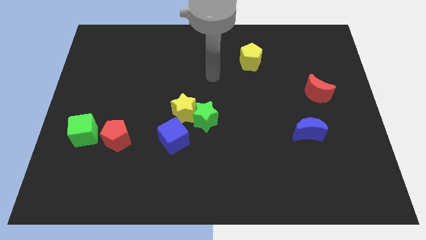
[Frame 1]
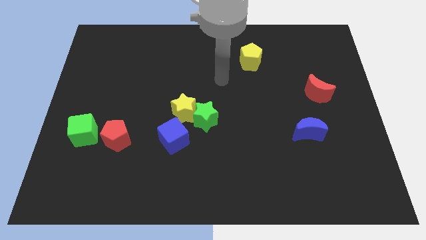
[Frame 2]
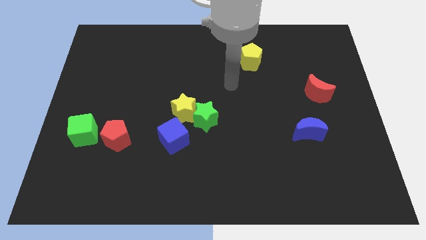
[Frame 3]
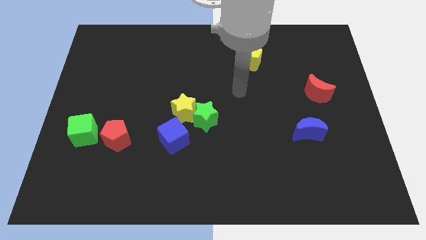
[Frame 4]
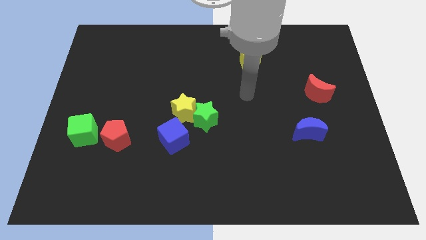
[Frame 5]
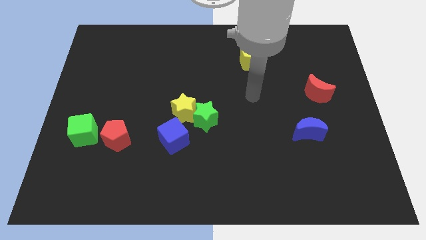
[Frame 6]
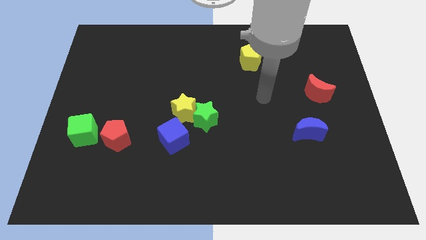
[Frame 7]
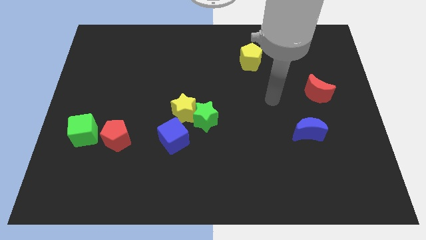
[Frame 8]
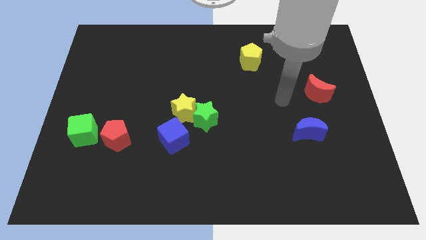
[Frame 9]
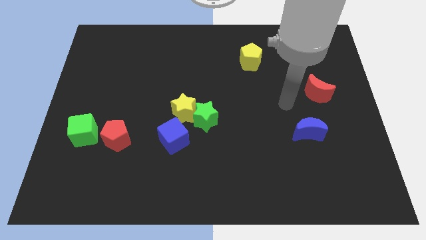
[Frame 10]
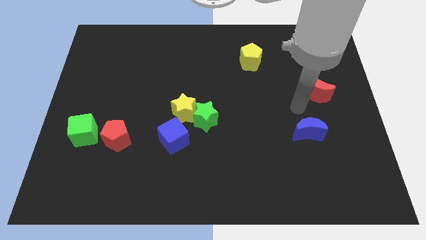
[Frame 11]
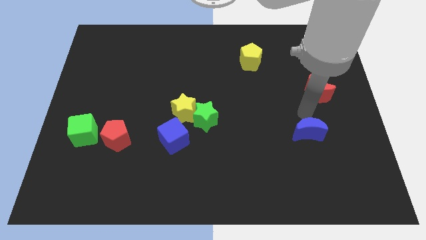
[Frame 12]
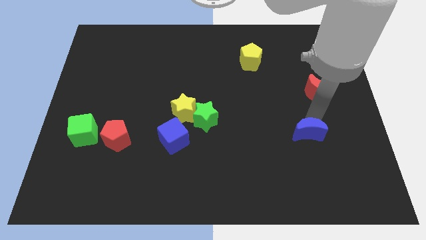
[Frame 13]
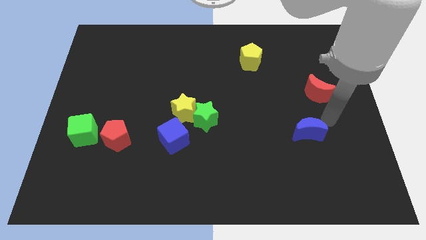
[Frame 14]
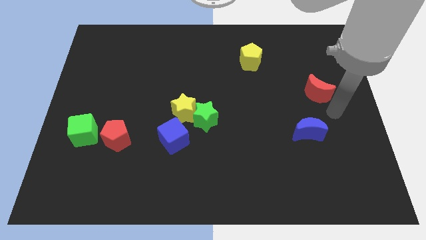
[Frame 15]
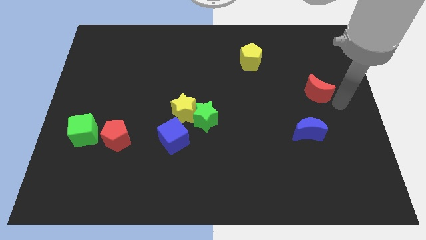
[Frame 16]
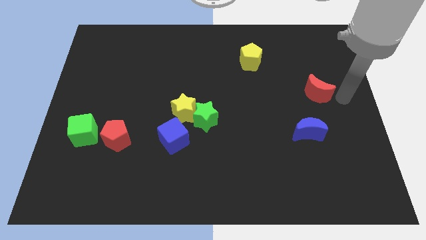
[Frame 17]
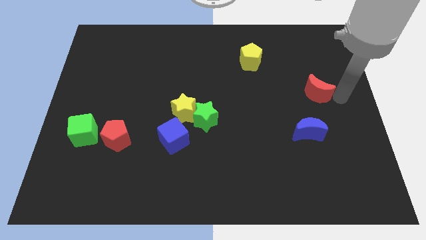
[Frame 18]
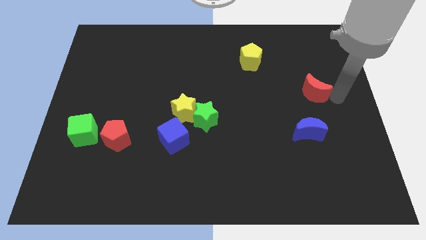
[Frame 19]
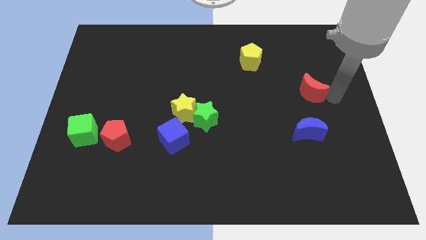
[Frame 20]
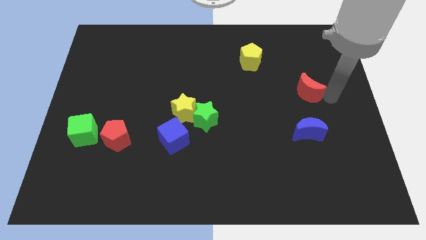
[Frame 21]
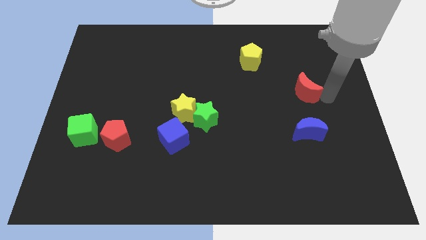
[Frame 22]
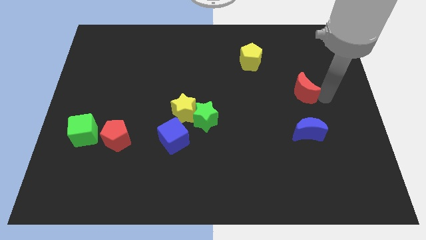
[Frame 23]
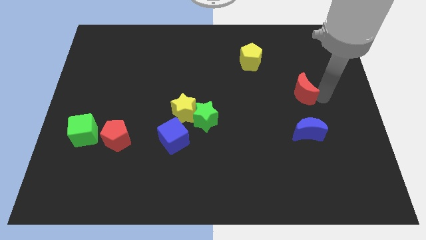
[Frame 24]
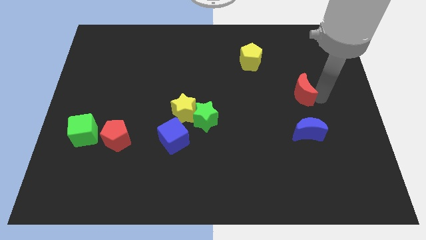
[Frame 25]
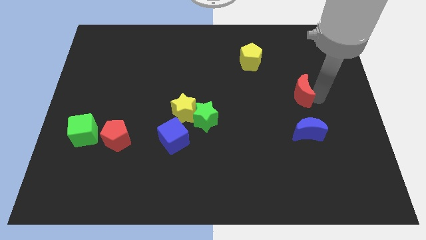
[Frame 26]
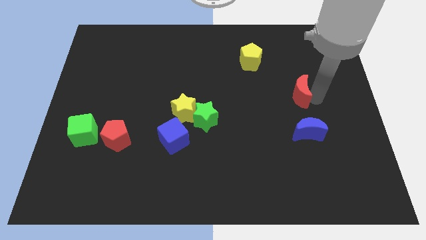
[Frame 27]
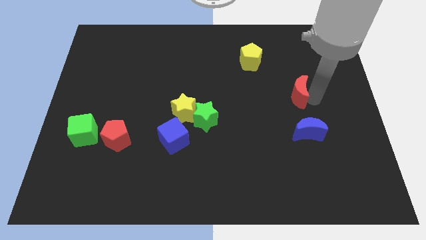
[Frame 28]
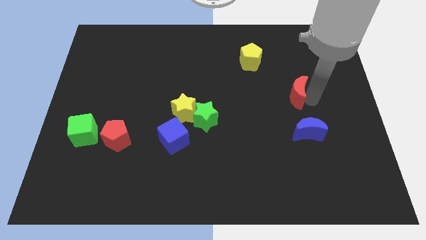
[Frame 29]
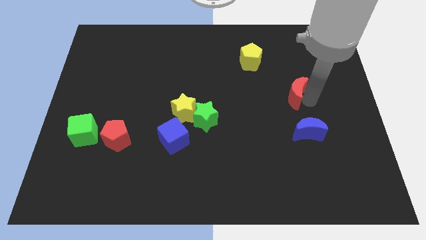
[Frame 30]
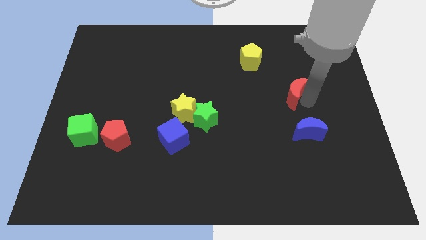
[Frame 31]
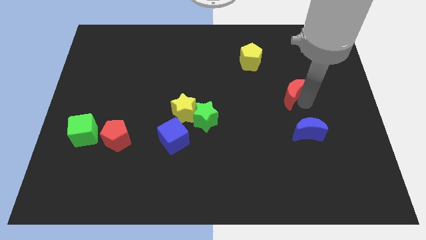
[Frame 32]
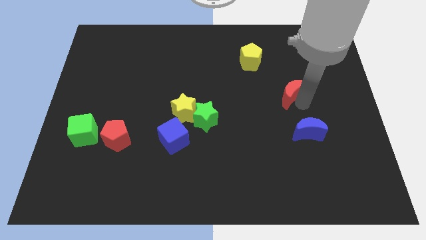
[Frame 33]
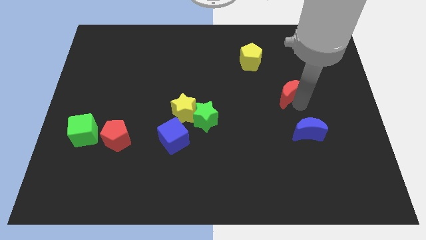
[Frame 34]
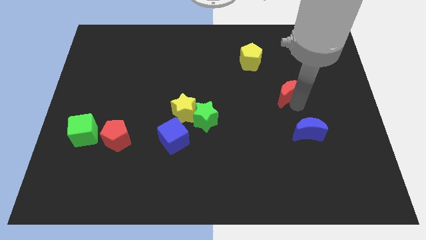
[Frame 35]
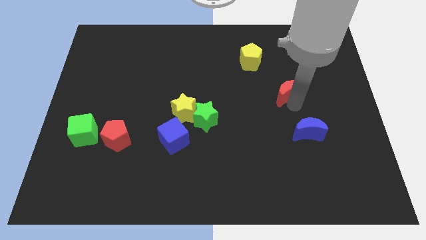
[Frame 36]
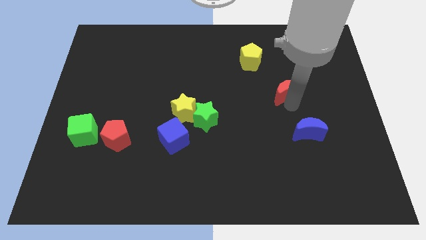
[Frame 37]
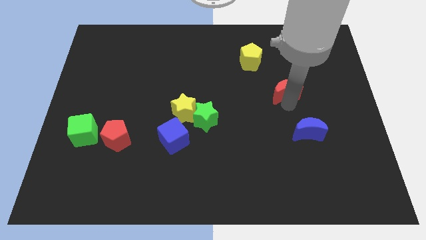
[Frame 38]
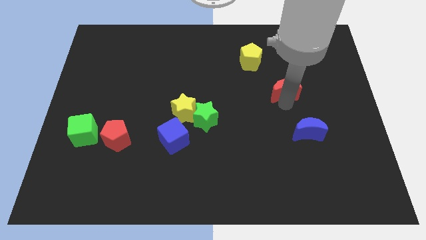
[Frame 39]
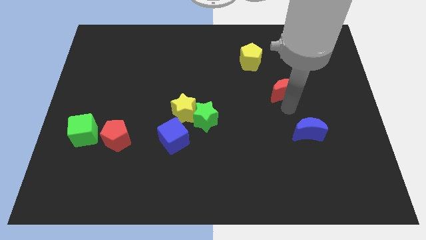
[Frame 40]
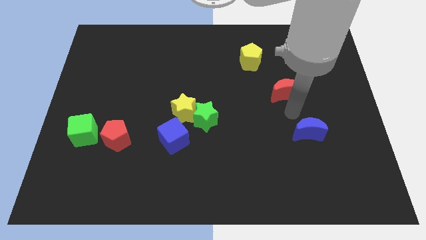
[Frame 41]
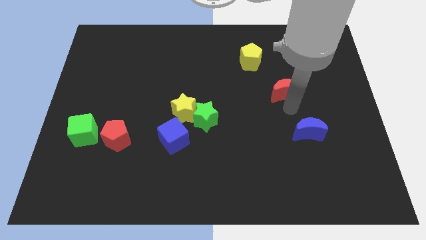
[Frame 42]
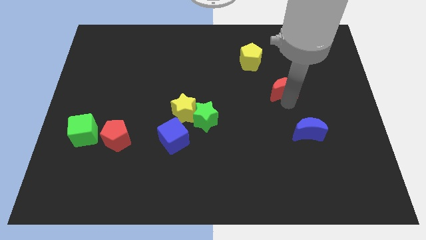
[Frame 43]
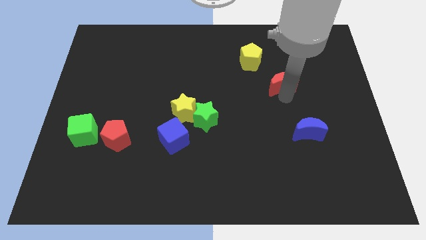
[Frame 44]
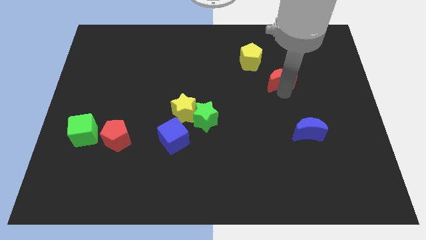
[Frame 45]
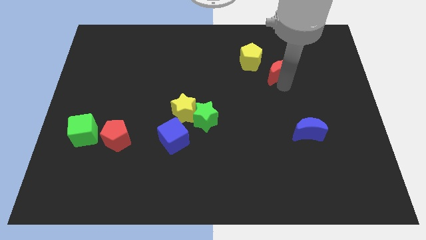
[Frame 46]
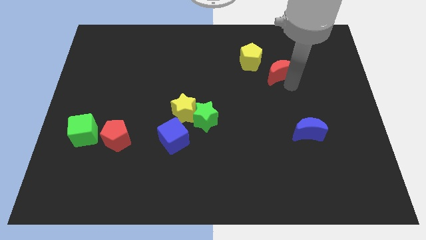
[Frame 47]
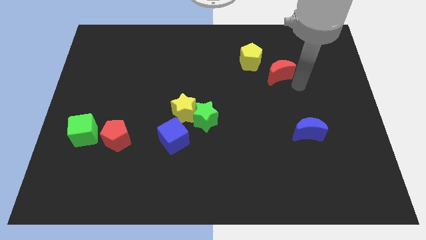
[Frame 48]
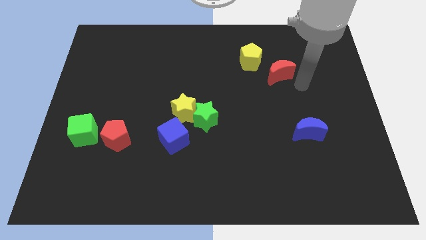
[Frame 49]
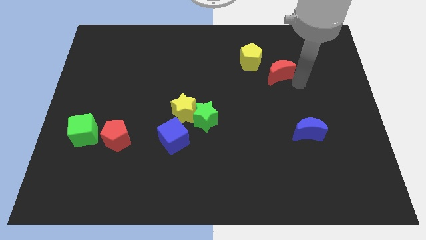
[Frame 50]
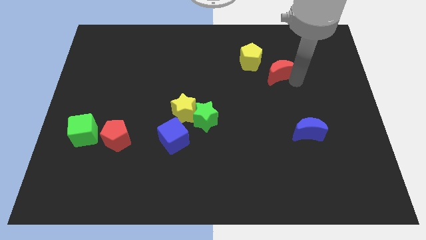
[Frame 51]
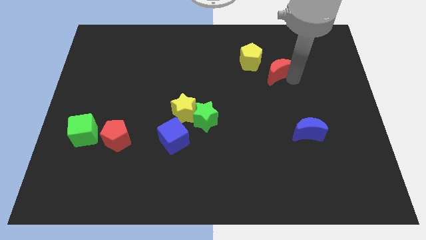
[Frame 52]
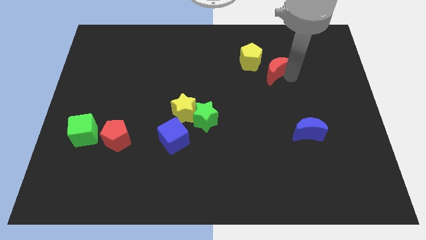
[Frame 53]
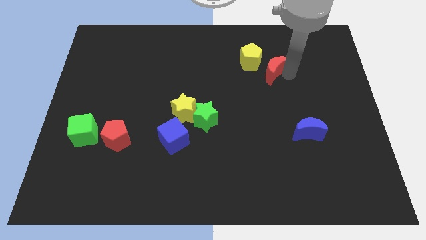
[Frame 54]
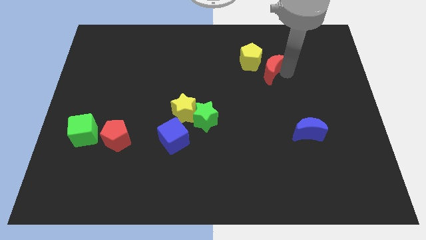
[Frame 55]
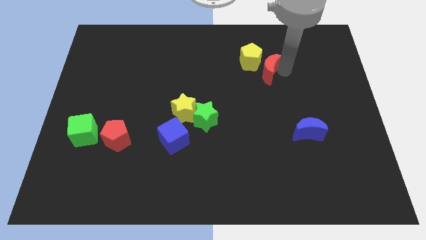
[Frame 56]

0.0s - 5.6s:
push the red moon close to the yellow pentagon

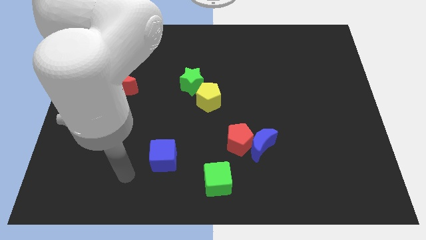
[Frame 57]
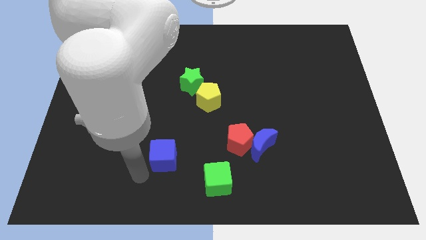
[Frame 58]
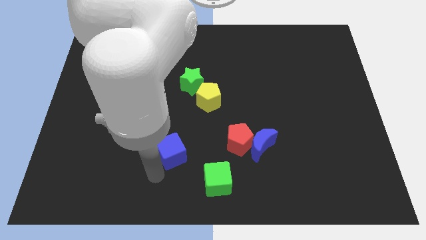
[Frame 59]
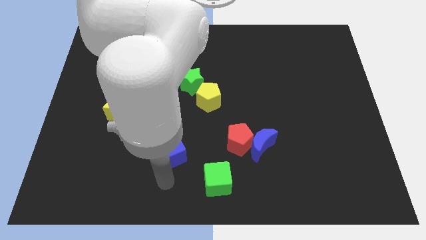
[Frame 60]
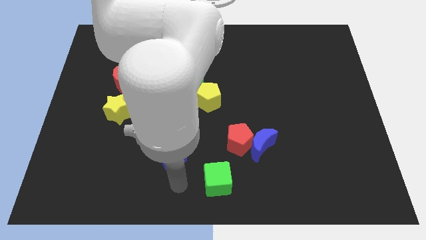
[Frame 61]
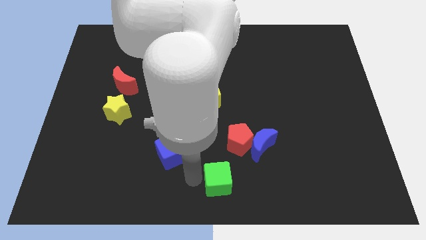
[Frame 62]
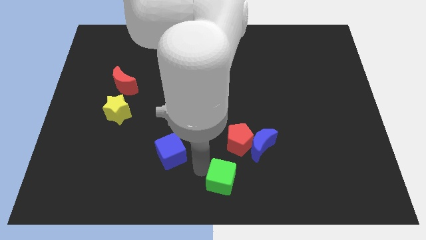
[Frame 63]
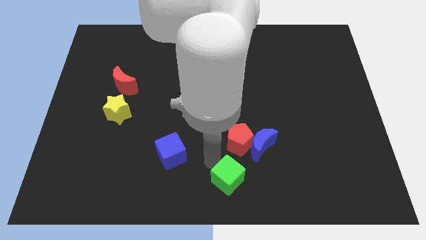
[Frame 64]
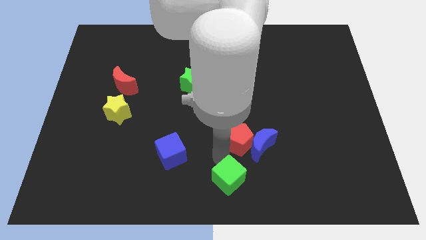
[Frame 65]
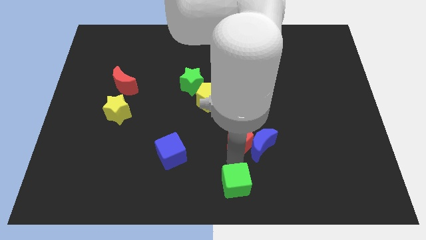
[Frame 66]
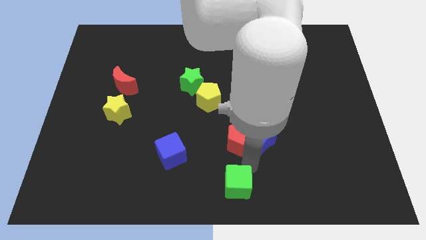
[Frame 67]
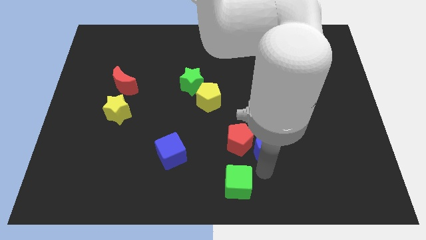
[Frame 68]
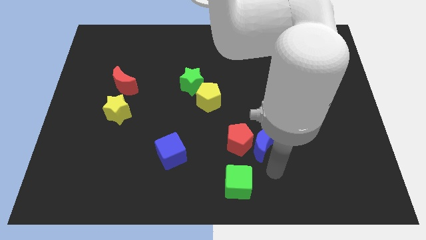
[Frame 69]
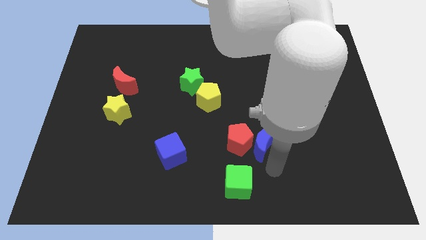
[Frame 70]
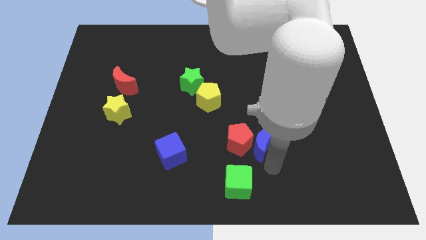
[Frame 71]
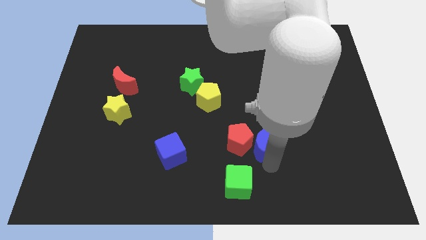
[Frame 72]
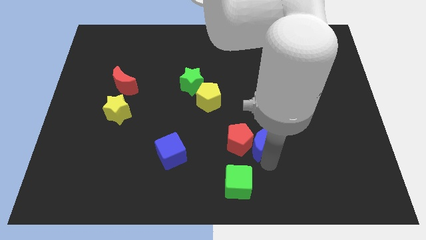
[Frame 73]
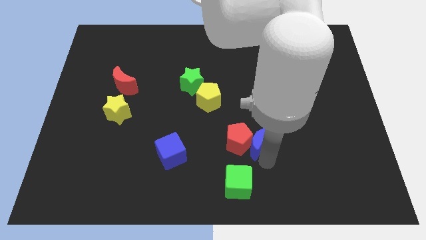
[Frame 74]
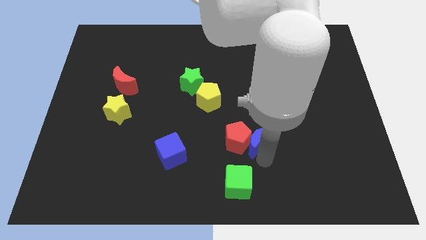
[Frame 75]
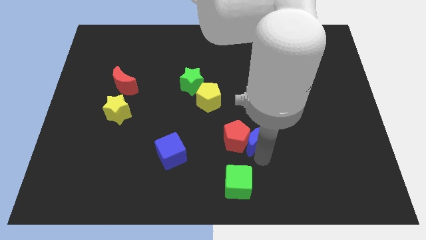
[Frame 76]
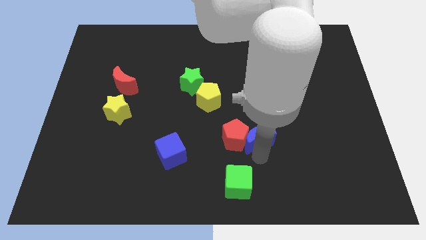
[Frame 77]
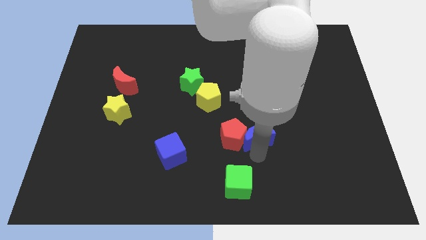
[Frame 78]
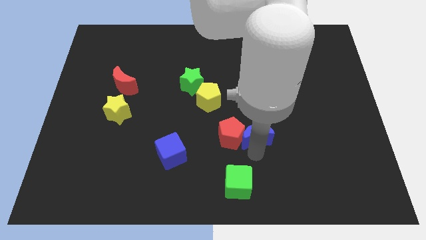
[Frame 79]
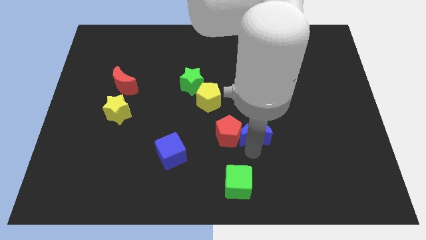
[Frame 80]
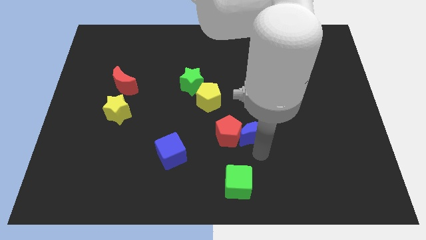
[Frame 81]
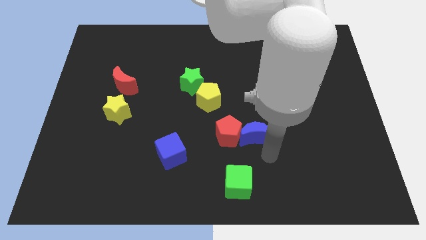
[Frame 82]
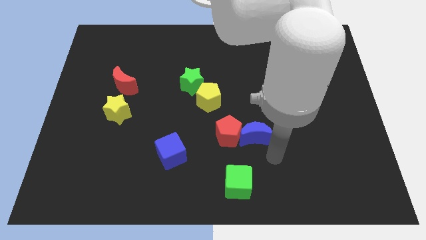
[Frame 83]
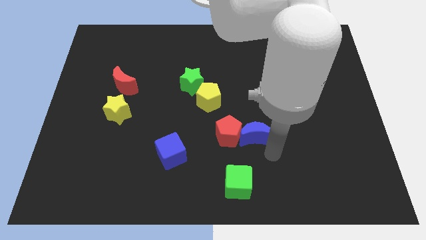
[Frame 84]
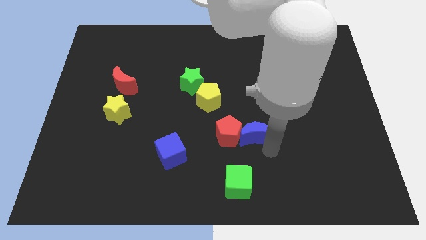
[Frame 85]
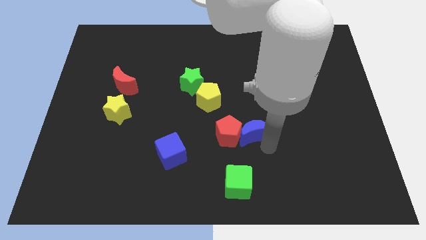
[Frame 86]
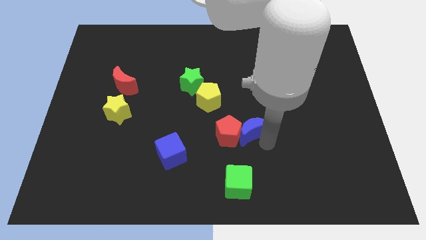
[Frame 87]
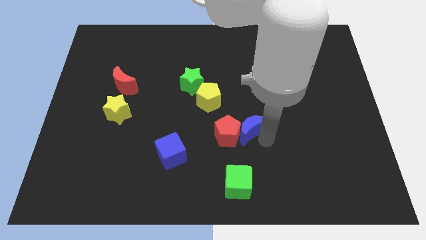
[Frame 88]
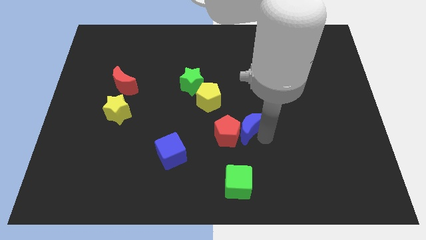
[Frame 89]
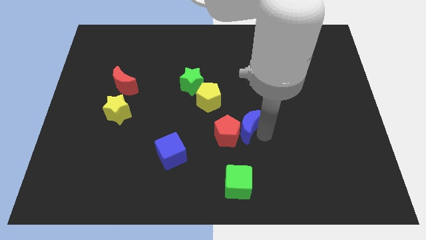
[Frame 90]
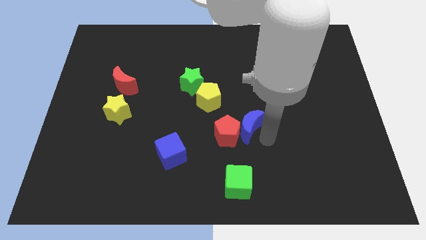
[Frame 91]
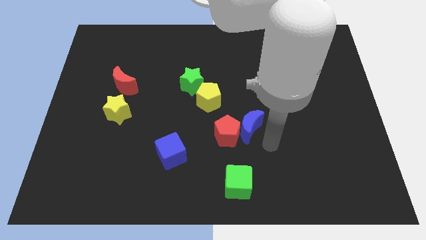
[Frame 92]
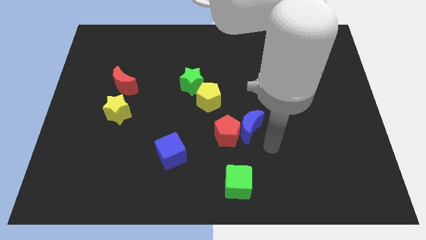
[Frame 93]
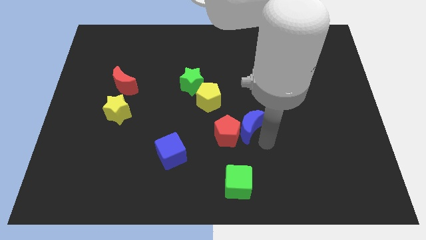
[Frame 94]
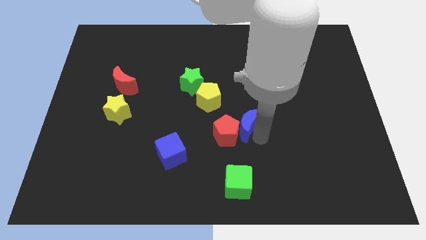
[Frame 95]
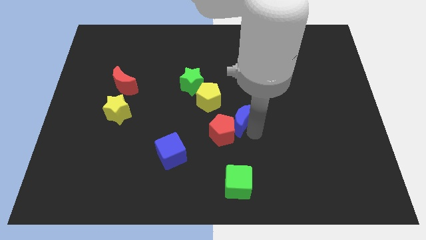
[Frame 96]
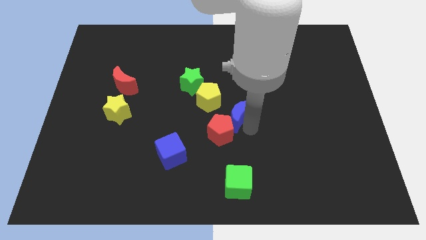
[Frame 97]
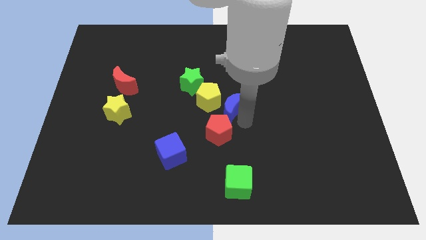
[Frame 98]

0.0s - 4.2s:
put the blue moon to the yellow pentagon
